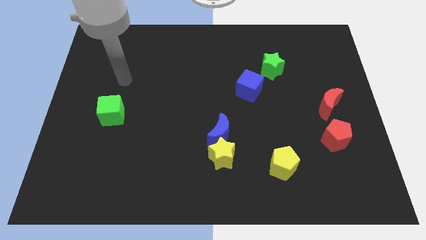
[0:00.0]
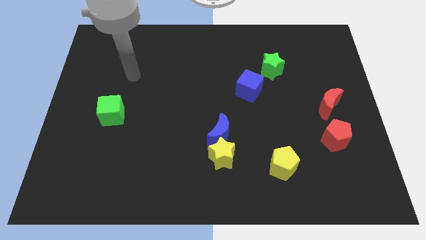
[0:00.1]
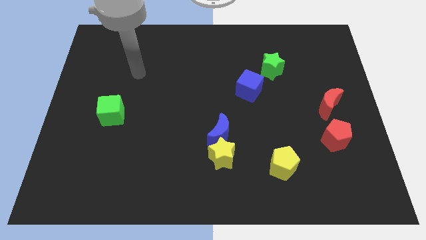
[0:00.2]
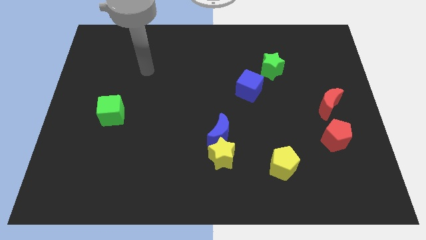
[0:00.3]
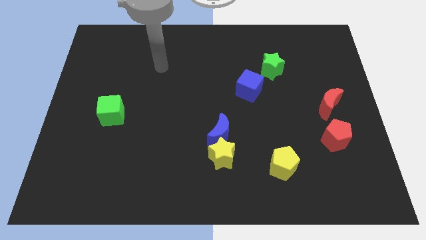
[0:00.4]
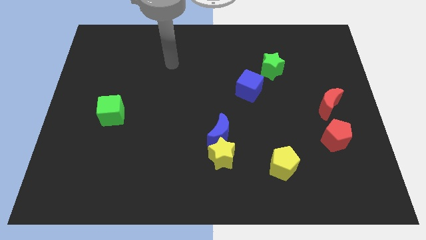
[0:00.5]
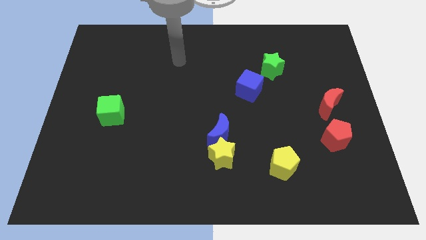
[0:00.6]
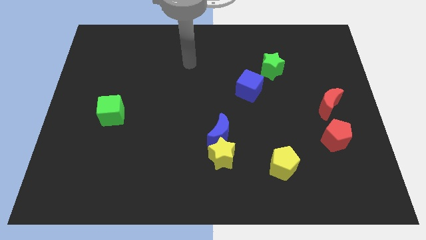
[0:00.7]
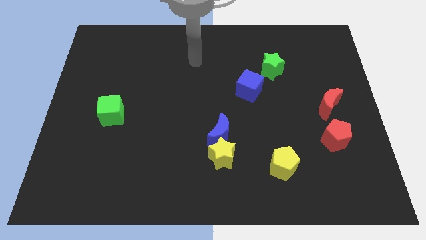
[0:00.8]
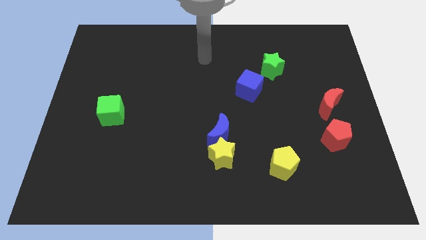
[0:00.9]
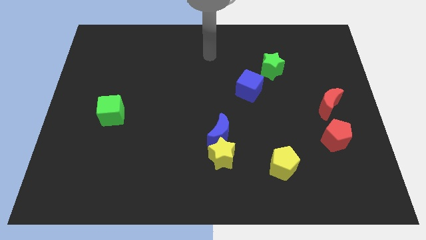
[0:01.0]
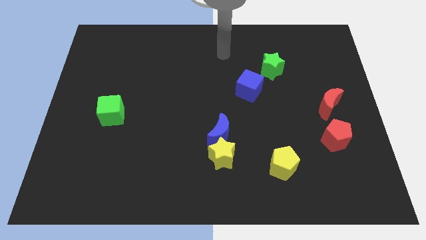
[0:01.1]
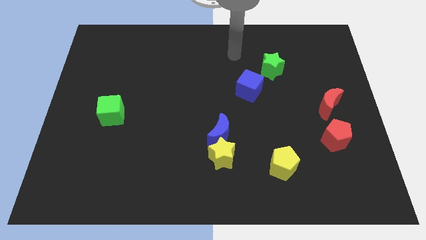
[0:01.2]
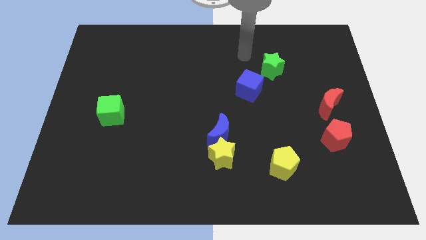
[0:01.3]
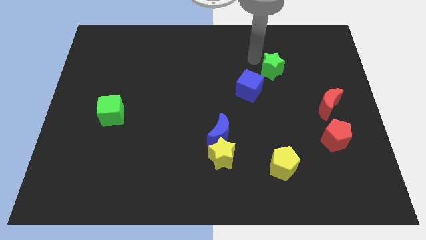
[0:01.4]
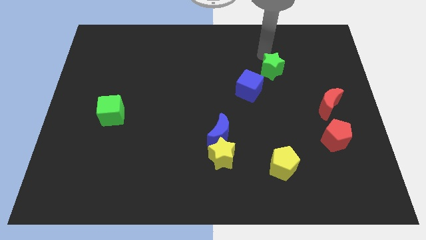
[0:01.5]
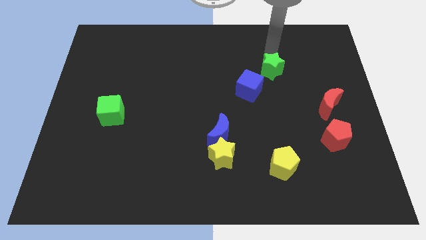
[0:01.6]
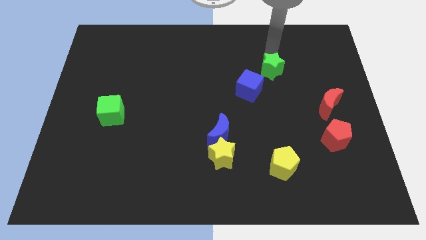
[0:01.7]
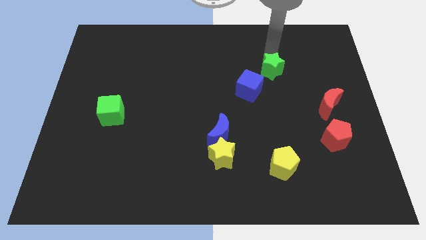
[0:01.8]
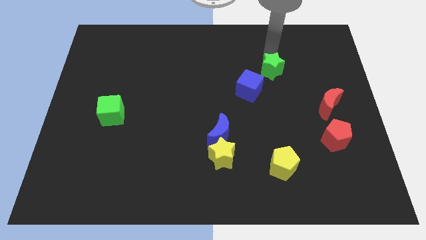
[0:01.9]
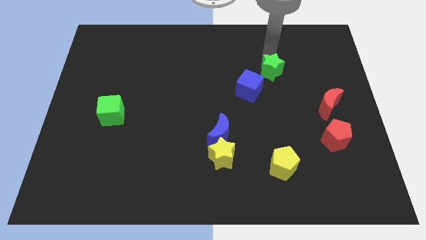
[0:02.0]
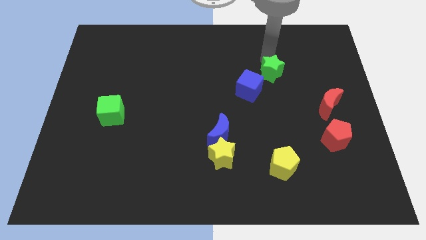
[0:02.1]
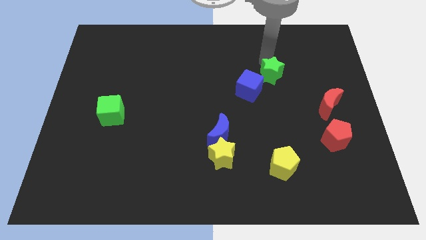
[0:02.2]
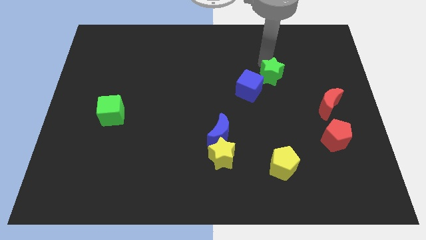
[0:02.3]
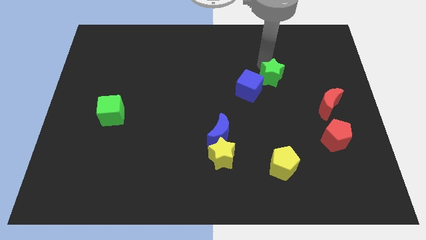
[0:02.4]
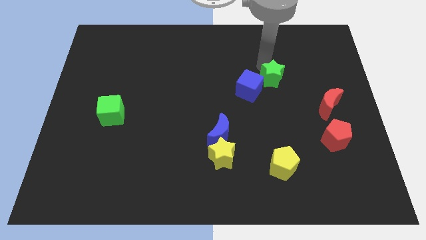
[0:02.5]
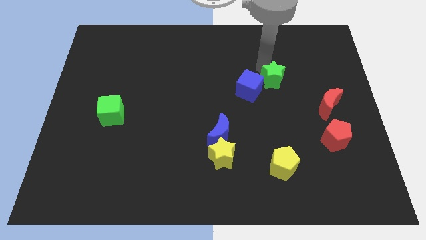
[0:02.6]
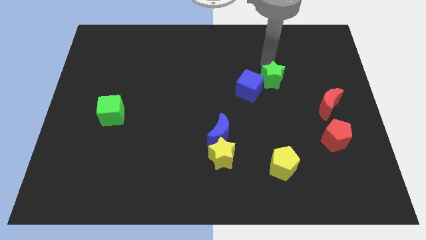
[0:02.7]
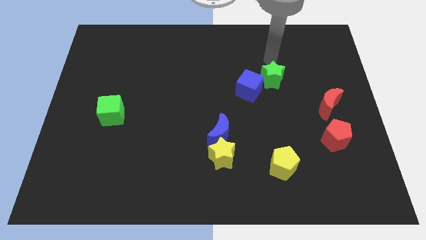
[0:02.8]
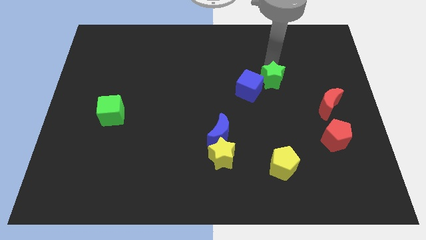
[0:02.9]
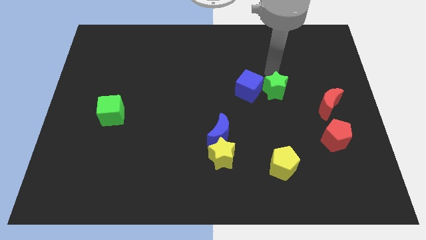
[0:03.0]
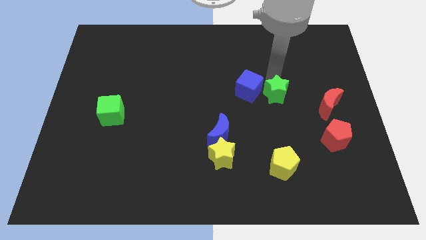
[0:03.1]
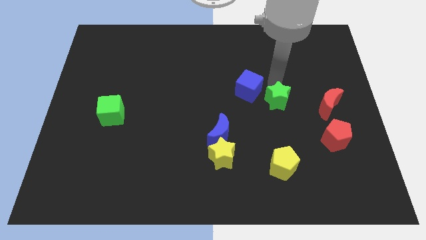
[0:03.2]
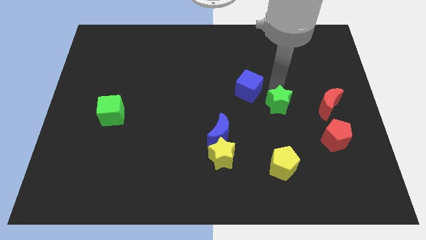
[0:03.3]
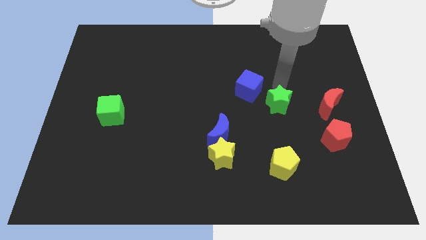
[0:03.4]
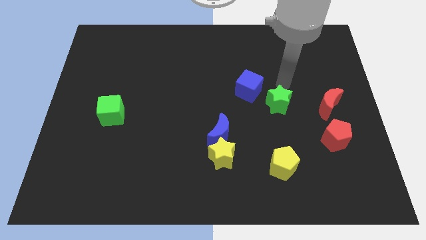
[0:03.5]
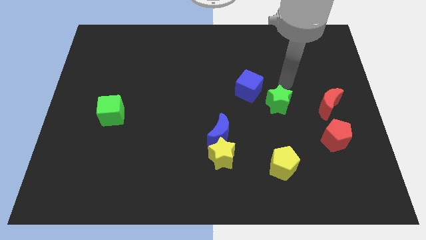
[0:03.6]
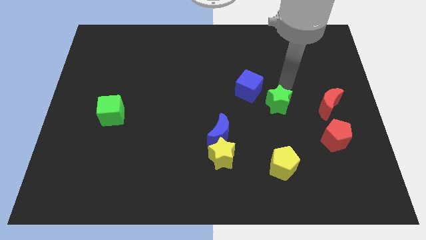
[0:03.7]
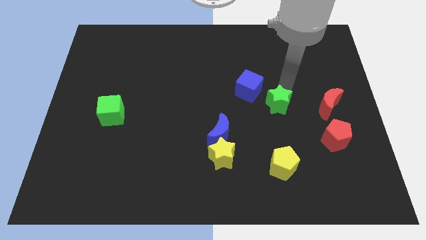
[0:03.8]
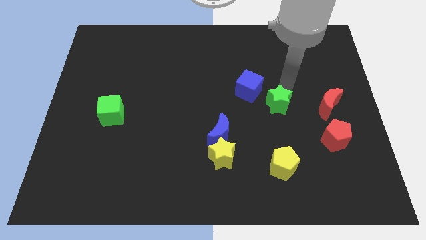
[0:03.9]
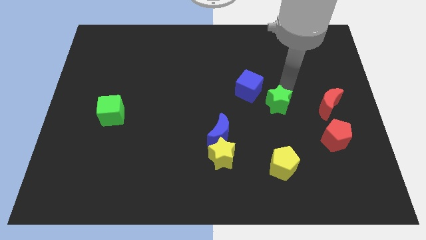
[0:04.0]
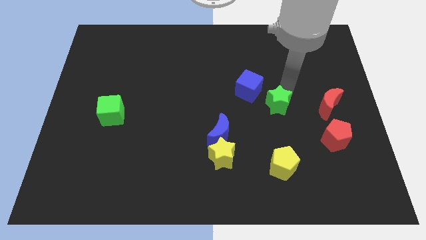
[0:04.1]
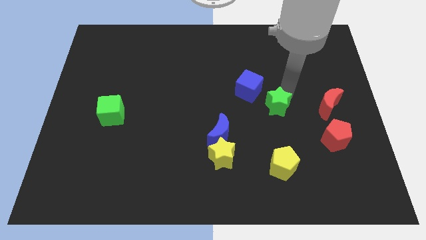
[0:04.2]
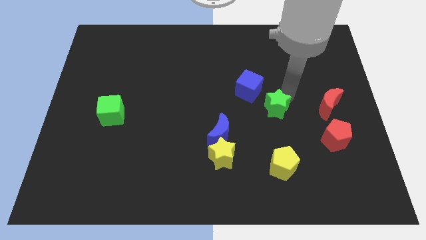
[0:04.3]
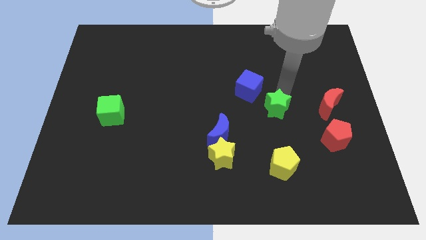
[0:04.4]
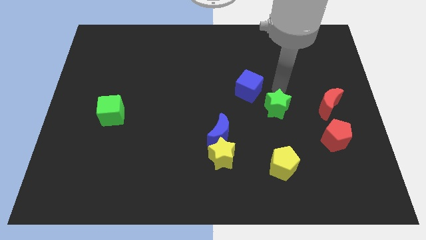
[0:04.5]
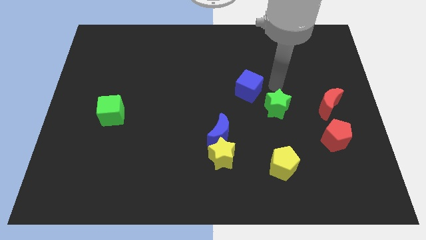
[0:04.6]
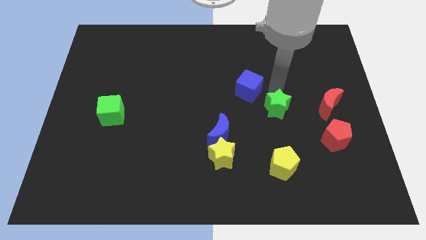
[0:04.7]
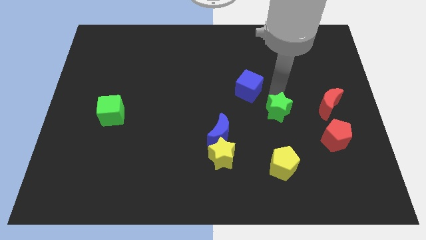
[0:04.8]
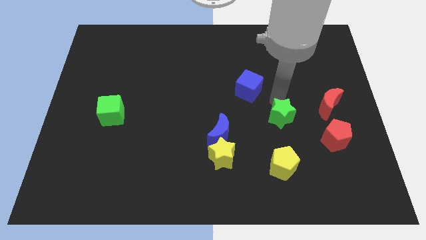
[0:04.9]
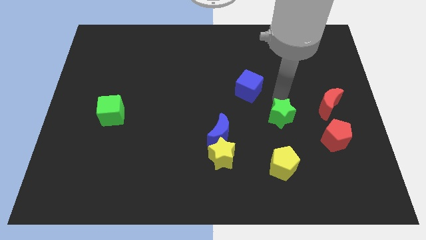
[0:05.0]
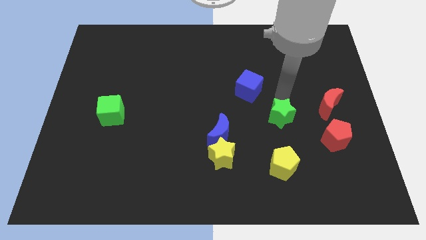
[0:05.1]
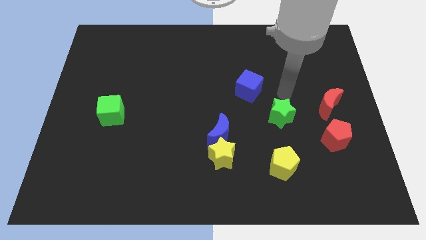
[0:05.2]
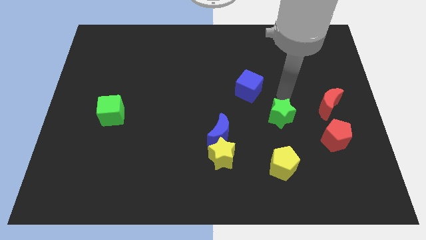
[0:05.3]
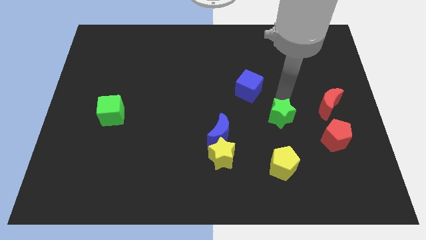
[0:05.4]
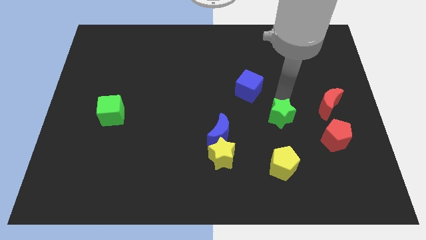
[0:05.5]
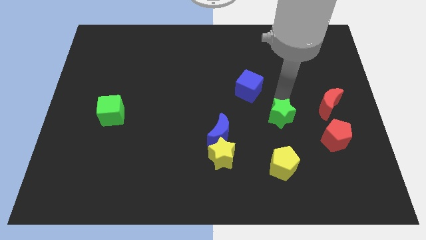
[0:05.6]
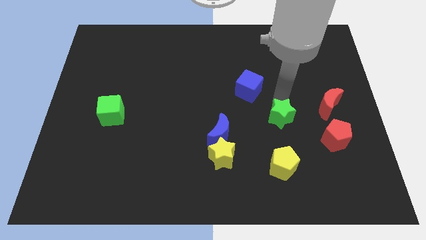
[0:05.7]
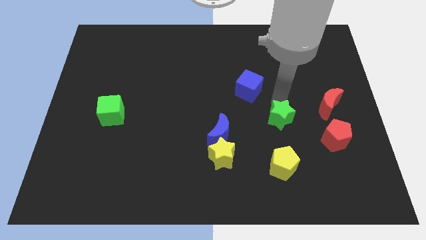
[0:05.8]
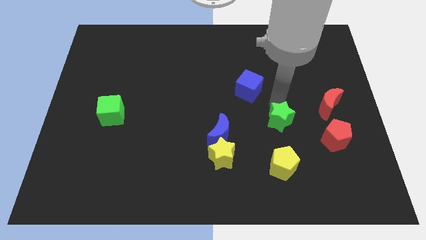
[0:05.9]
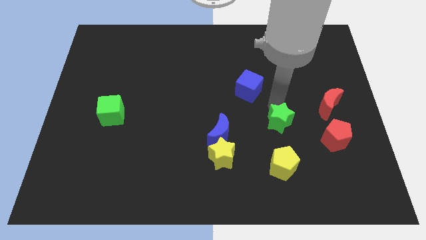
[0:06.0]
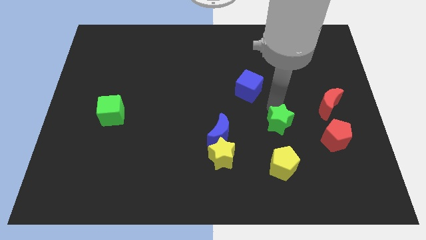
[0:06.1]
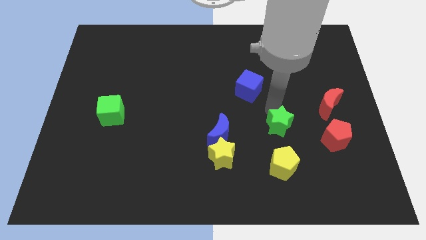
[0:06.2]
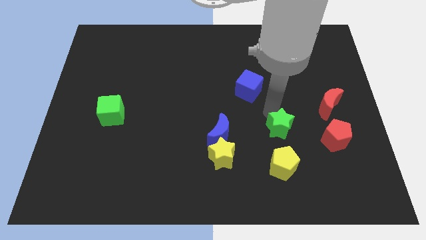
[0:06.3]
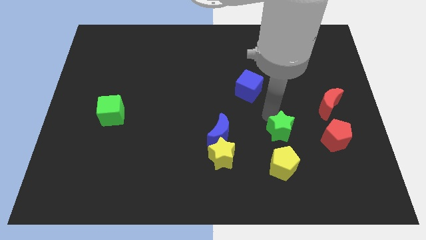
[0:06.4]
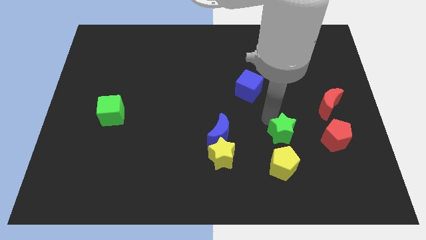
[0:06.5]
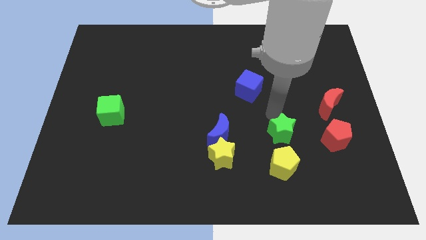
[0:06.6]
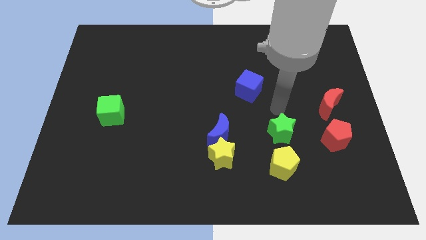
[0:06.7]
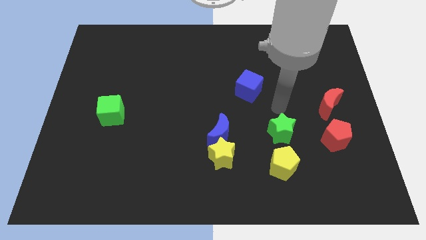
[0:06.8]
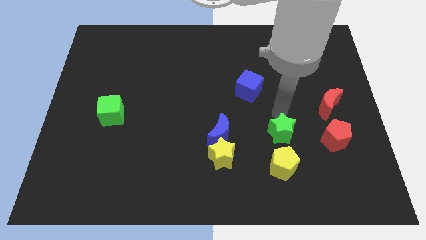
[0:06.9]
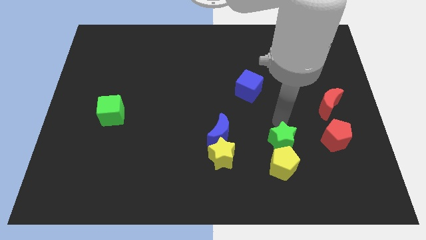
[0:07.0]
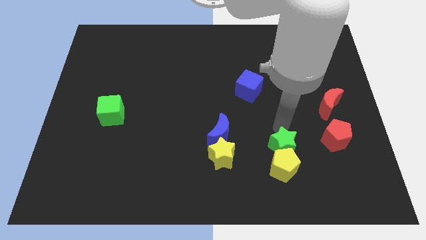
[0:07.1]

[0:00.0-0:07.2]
push the green star next to the yellow pentagon
